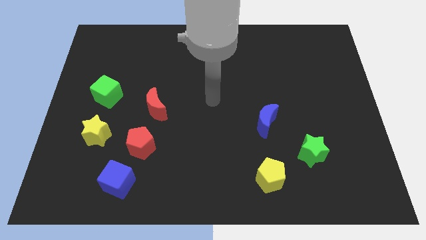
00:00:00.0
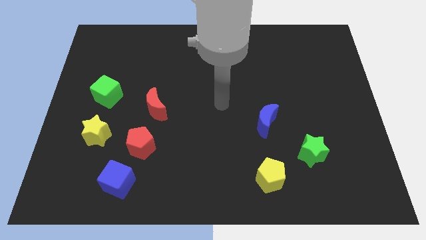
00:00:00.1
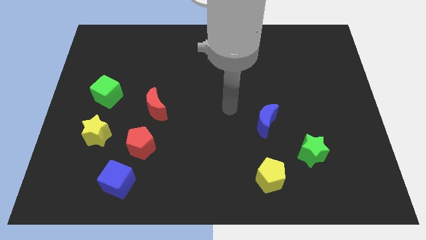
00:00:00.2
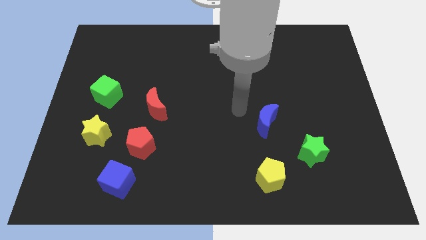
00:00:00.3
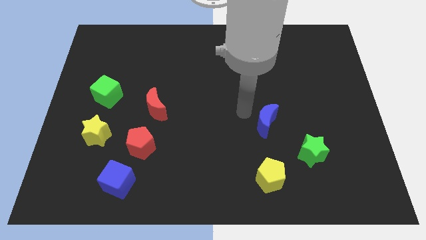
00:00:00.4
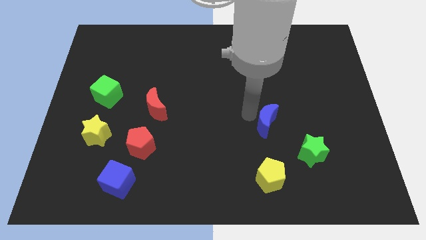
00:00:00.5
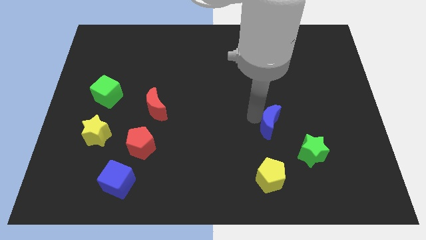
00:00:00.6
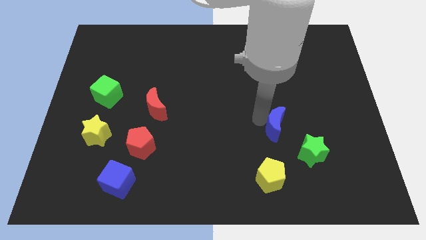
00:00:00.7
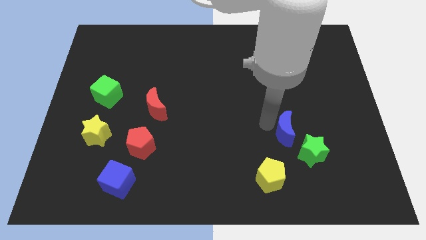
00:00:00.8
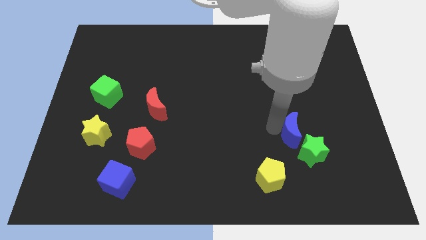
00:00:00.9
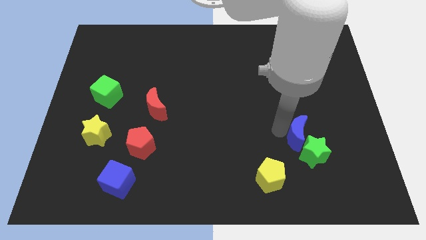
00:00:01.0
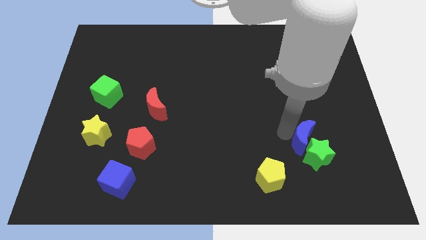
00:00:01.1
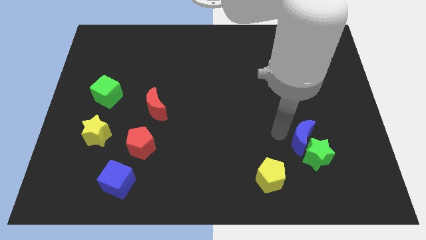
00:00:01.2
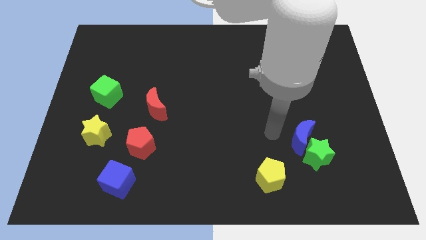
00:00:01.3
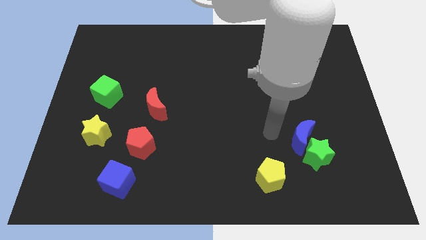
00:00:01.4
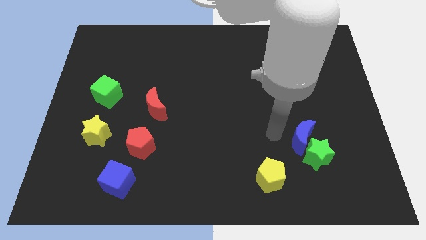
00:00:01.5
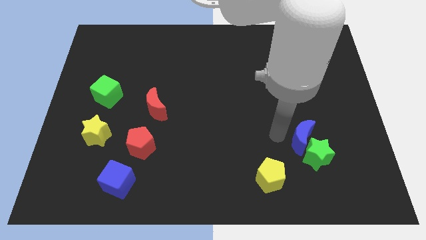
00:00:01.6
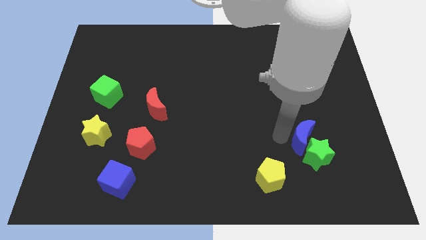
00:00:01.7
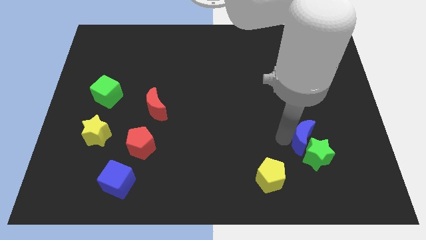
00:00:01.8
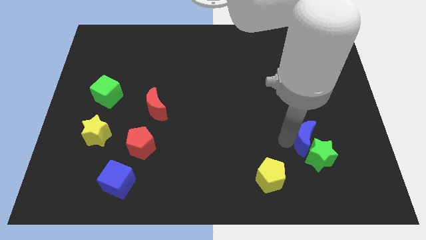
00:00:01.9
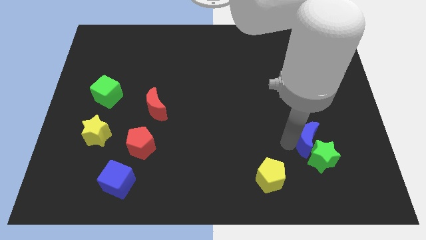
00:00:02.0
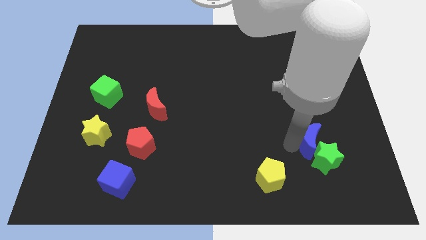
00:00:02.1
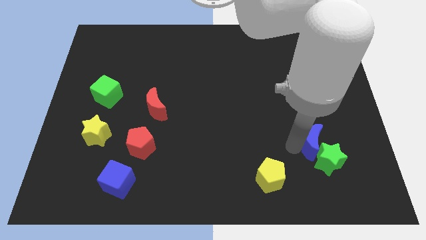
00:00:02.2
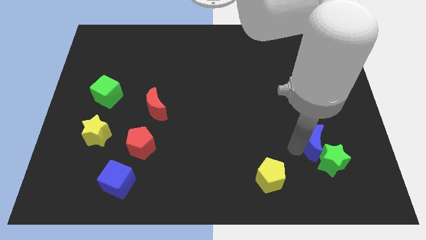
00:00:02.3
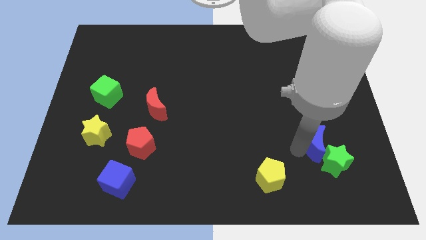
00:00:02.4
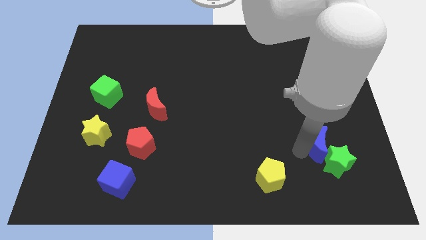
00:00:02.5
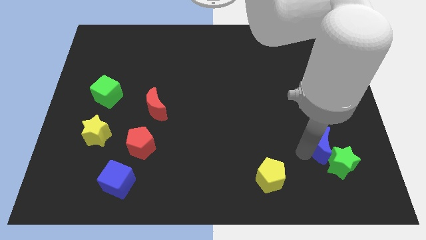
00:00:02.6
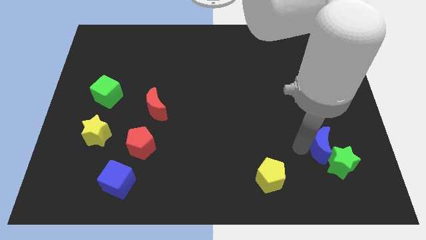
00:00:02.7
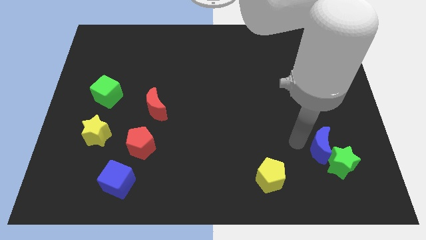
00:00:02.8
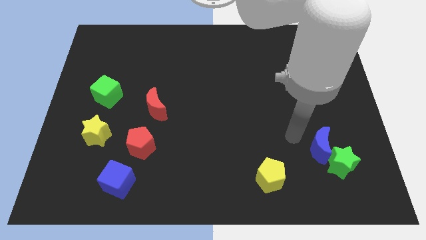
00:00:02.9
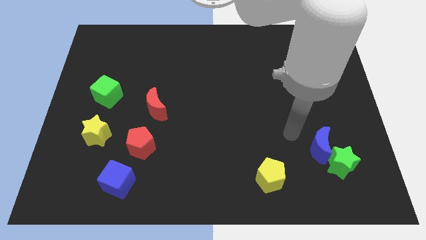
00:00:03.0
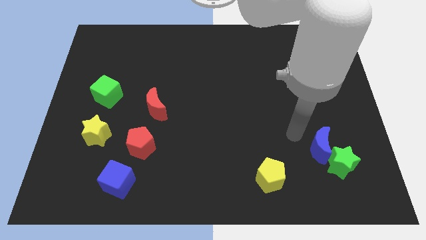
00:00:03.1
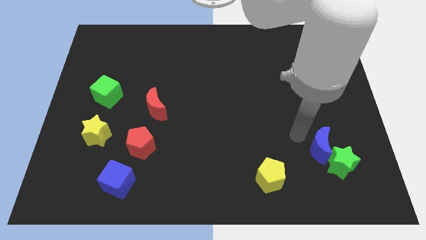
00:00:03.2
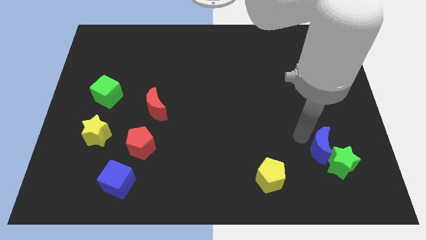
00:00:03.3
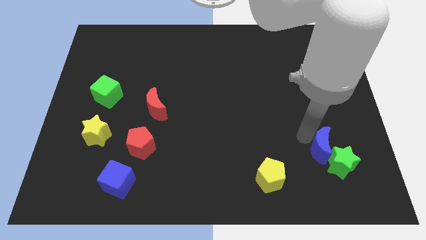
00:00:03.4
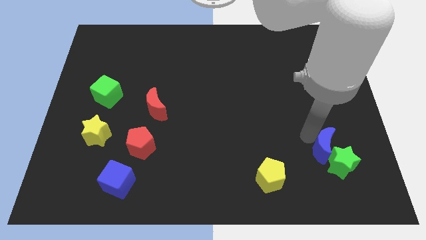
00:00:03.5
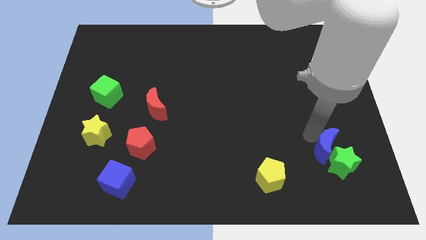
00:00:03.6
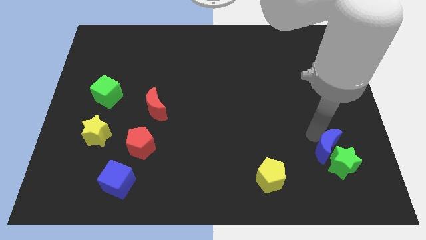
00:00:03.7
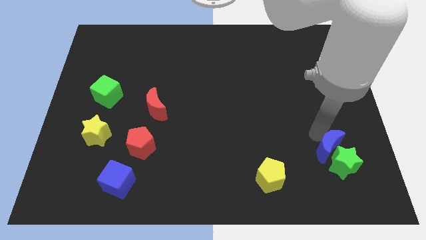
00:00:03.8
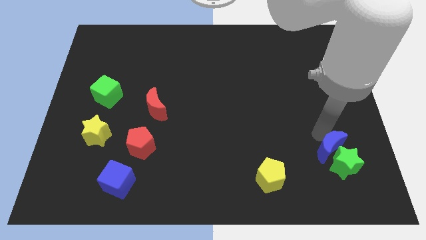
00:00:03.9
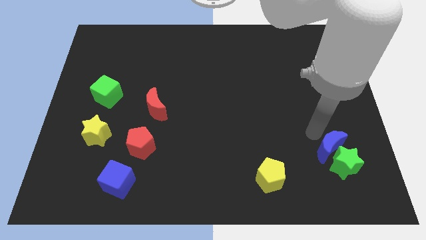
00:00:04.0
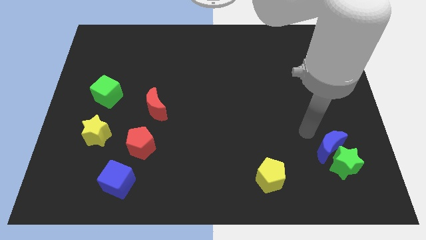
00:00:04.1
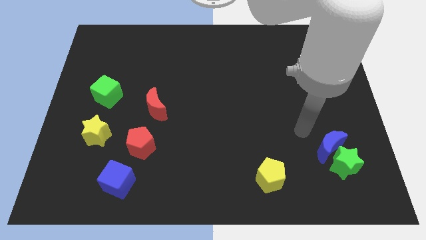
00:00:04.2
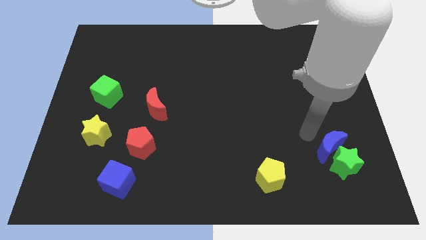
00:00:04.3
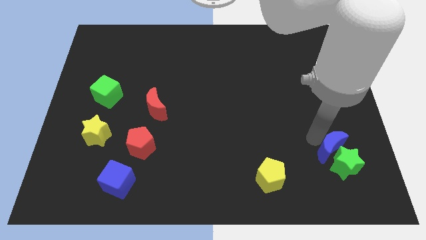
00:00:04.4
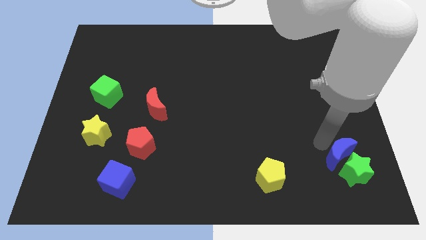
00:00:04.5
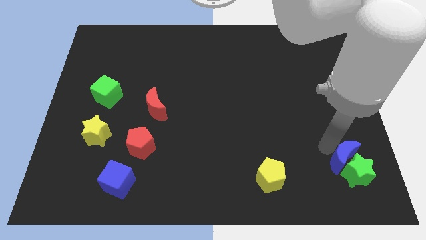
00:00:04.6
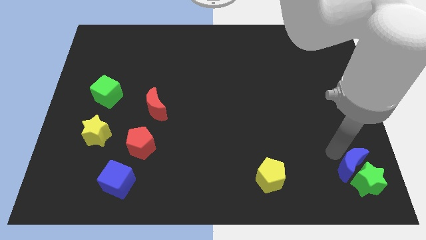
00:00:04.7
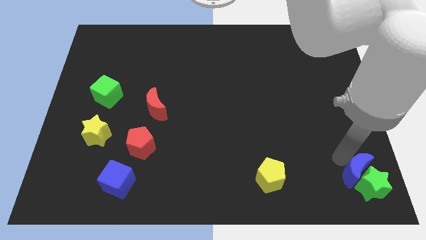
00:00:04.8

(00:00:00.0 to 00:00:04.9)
put the blue moon to the bottom right

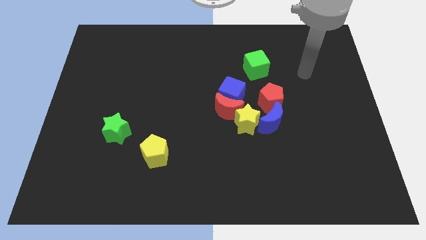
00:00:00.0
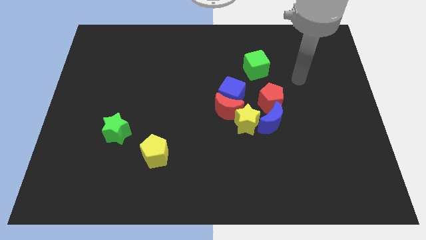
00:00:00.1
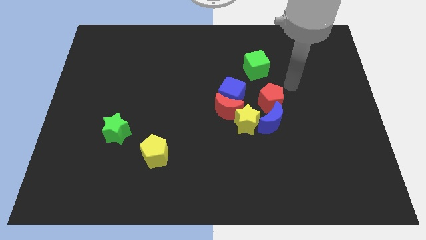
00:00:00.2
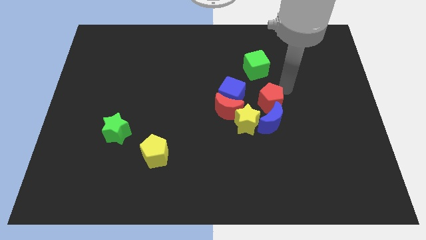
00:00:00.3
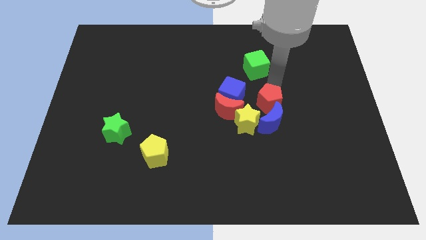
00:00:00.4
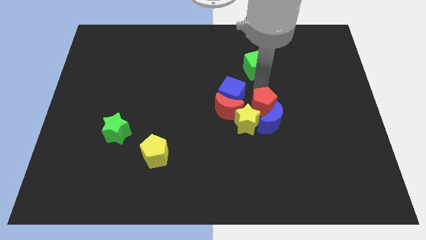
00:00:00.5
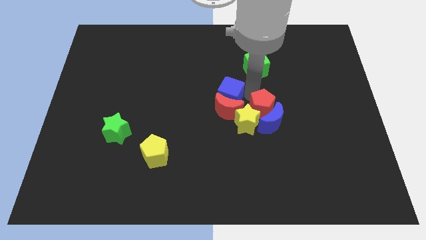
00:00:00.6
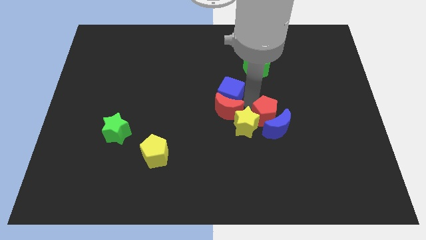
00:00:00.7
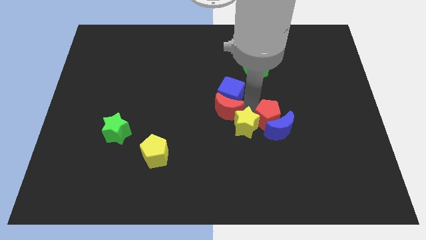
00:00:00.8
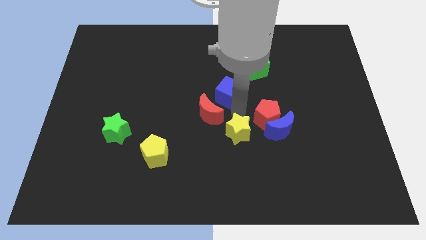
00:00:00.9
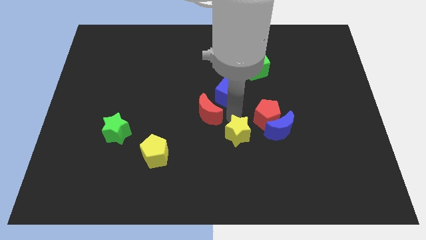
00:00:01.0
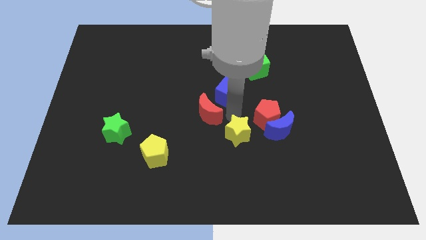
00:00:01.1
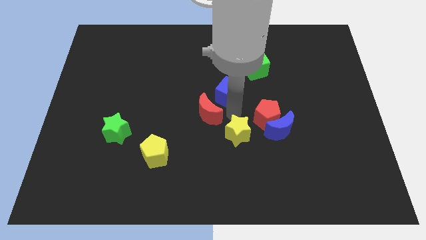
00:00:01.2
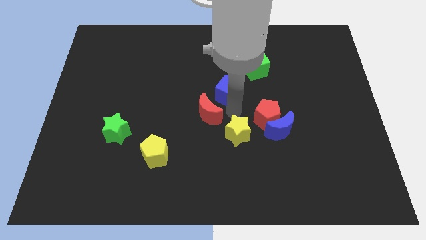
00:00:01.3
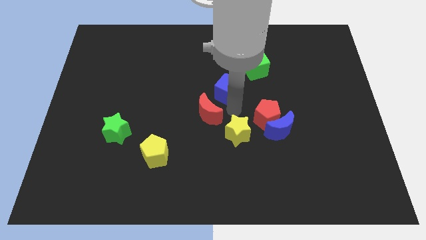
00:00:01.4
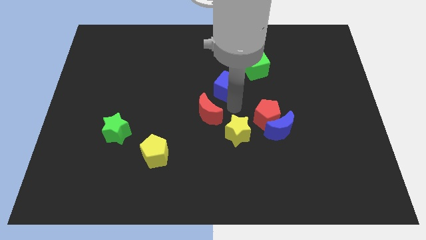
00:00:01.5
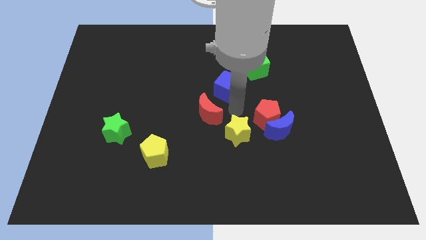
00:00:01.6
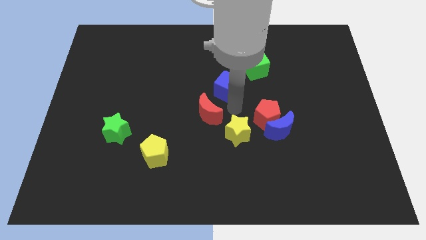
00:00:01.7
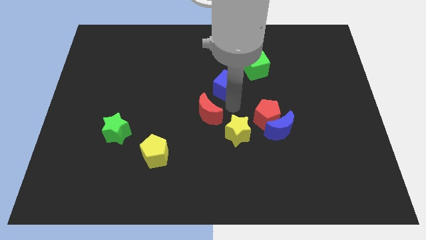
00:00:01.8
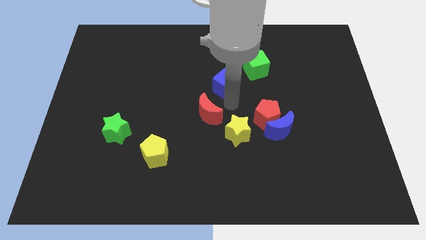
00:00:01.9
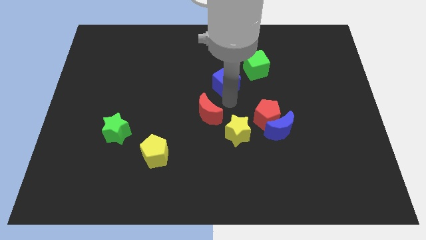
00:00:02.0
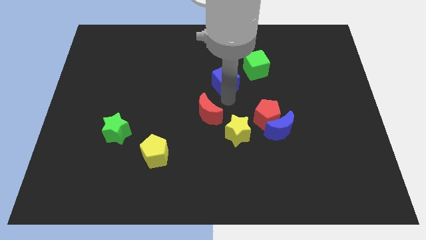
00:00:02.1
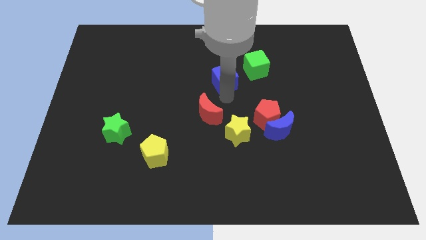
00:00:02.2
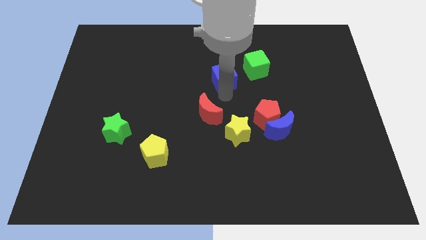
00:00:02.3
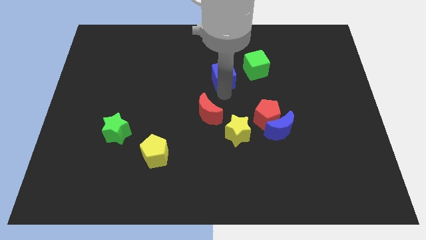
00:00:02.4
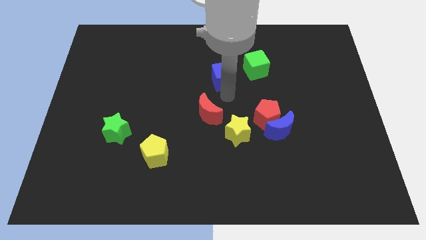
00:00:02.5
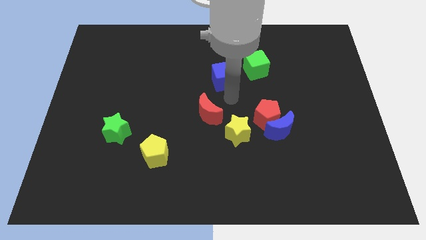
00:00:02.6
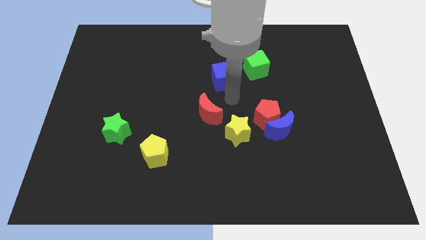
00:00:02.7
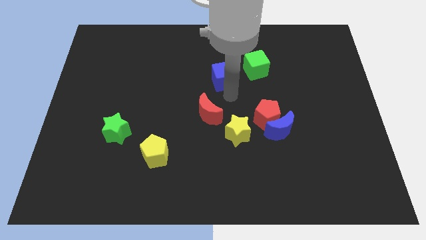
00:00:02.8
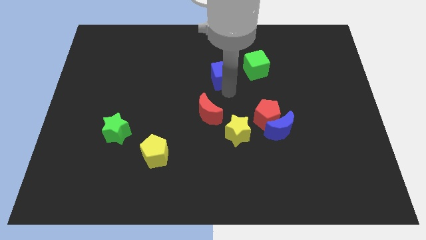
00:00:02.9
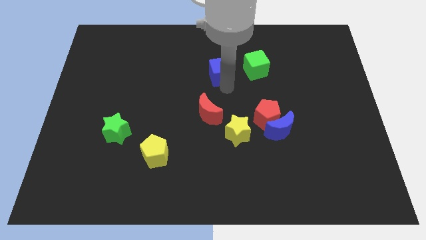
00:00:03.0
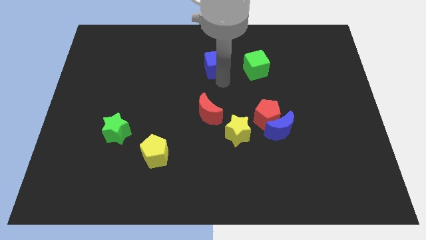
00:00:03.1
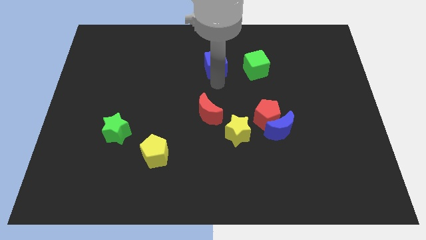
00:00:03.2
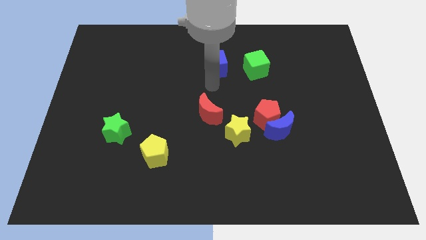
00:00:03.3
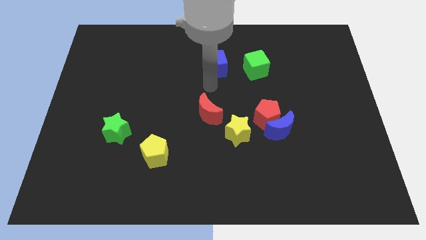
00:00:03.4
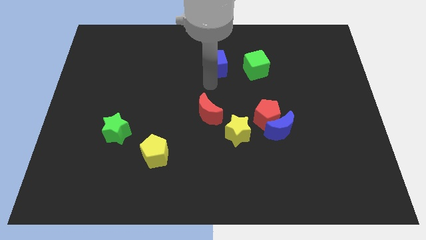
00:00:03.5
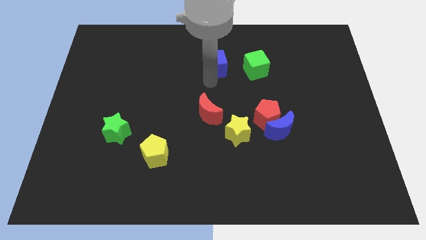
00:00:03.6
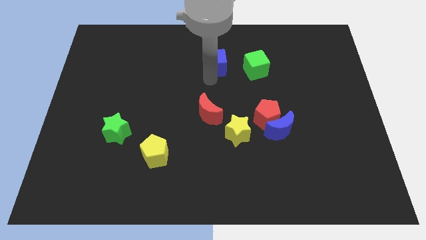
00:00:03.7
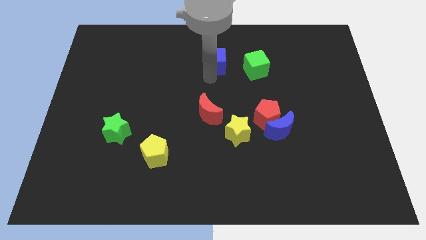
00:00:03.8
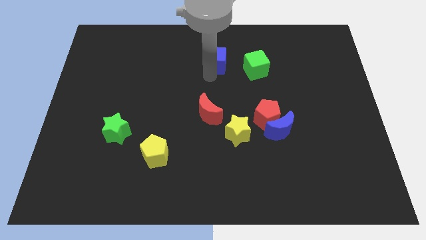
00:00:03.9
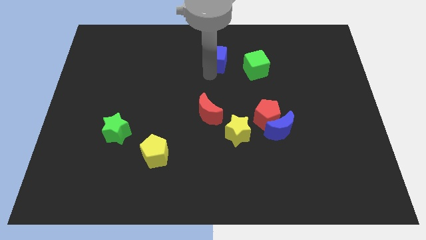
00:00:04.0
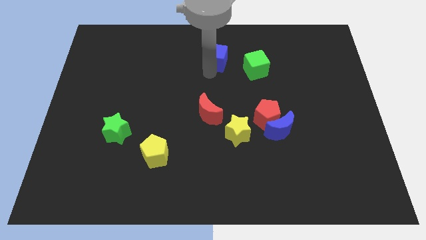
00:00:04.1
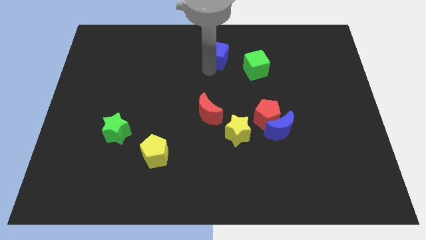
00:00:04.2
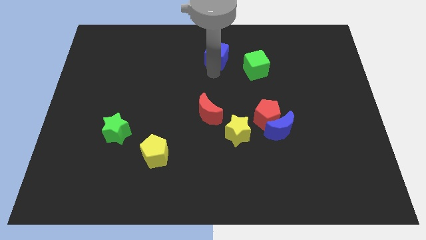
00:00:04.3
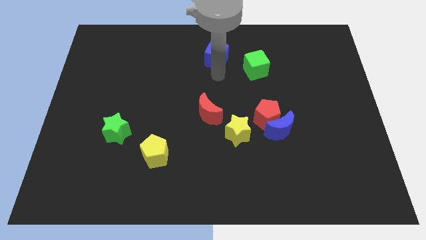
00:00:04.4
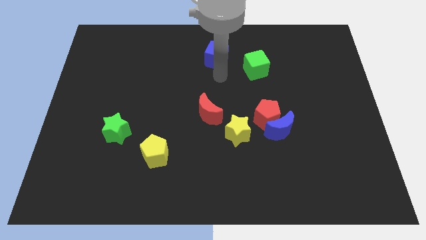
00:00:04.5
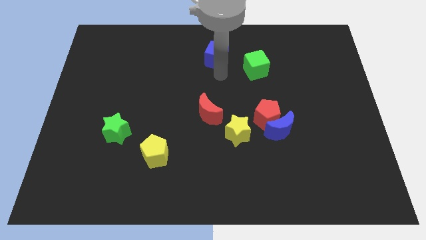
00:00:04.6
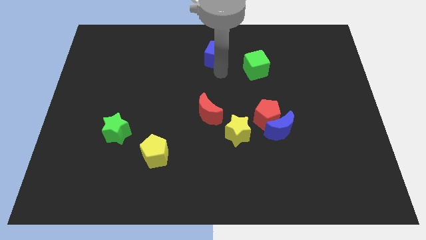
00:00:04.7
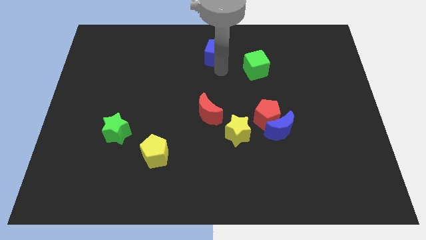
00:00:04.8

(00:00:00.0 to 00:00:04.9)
move the blue cube to the top
